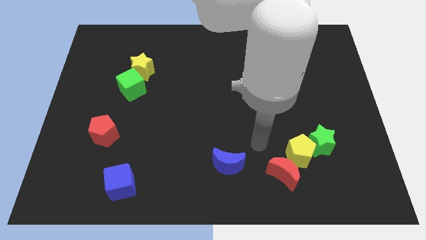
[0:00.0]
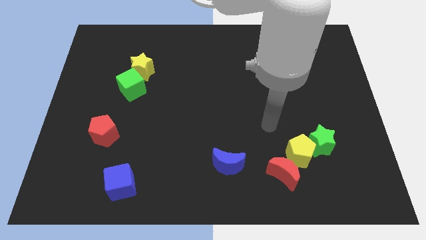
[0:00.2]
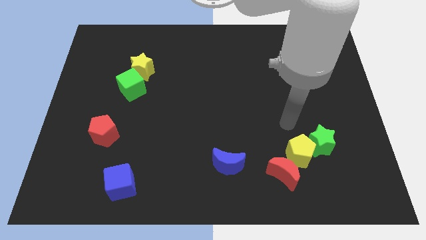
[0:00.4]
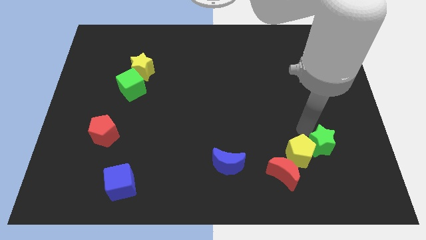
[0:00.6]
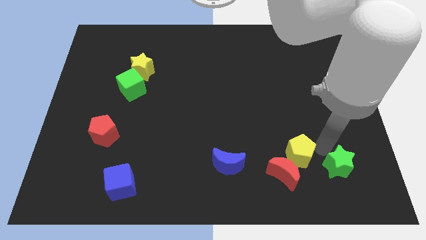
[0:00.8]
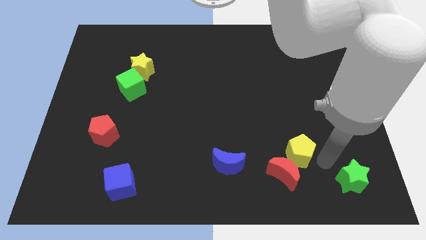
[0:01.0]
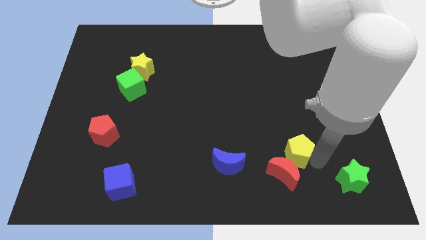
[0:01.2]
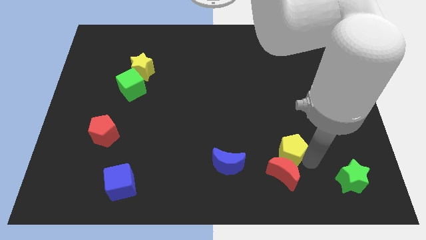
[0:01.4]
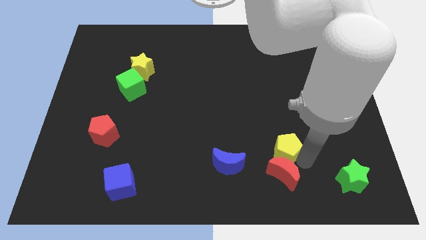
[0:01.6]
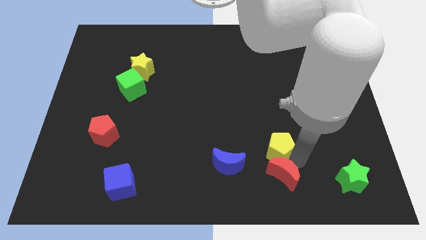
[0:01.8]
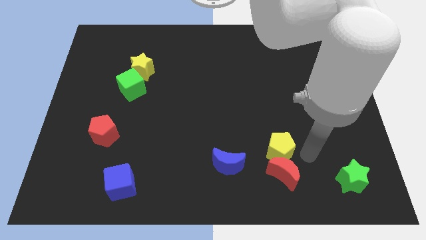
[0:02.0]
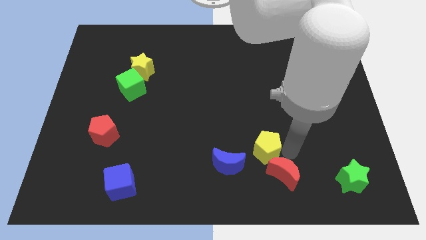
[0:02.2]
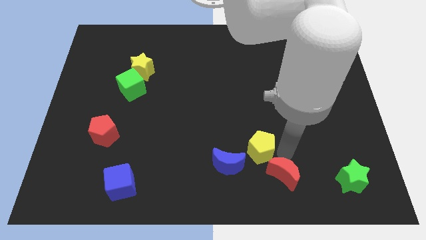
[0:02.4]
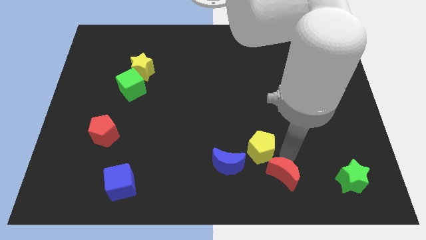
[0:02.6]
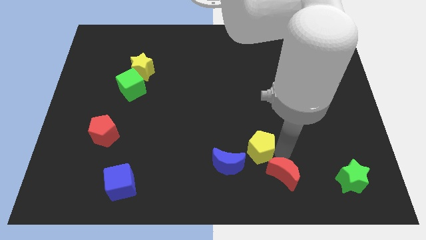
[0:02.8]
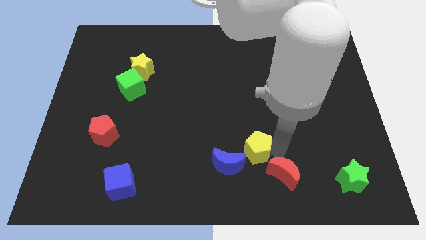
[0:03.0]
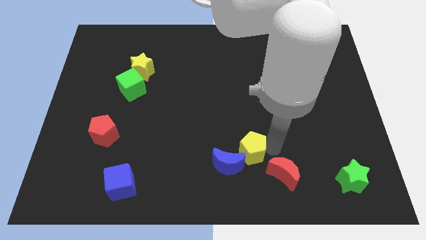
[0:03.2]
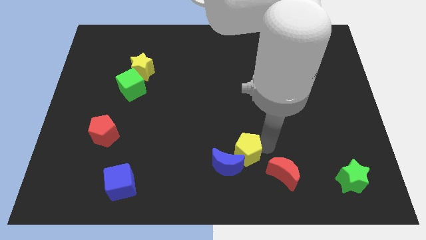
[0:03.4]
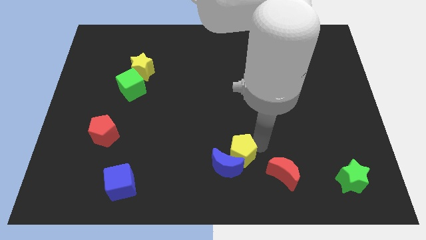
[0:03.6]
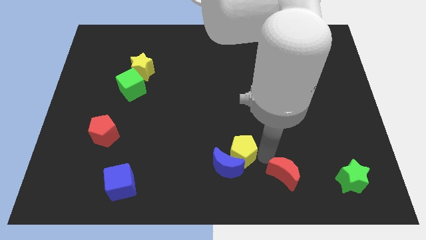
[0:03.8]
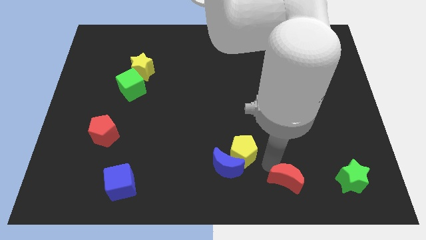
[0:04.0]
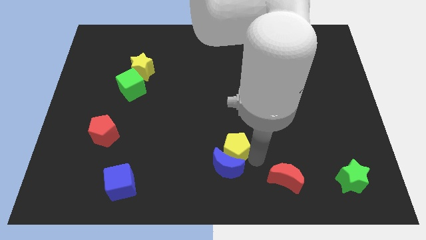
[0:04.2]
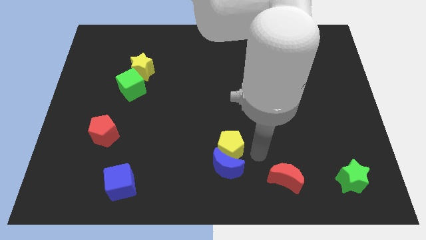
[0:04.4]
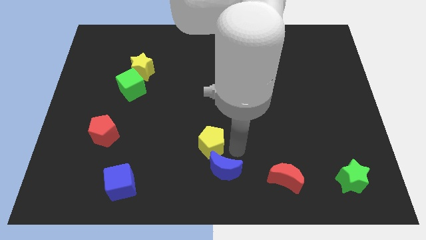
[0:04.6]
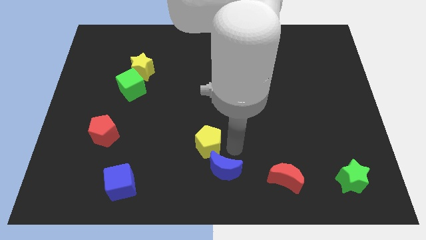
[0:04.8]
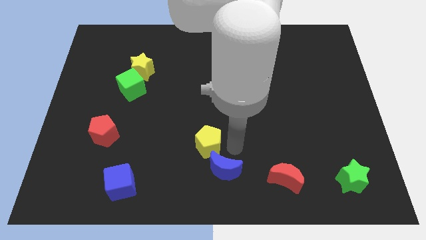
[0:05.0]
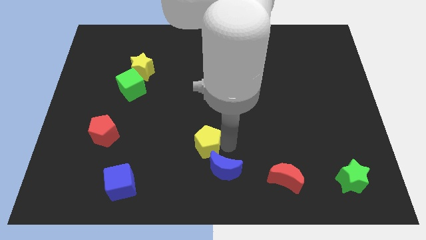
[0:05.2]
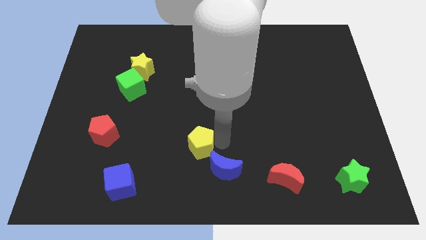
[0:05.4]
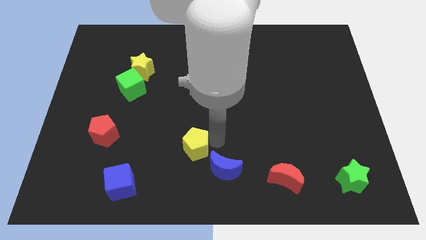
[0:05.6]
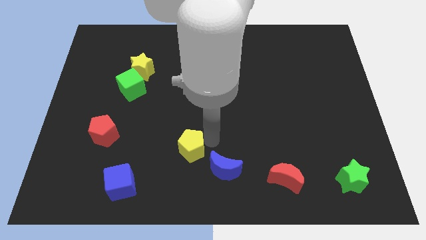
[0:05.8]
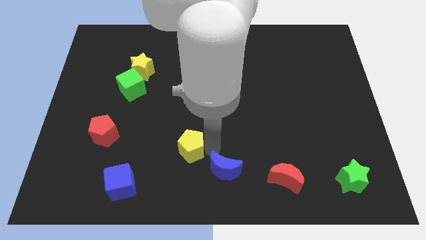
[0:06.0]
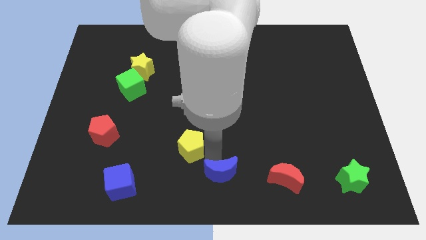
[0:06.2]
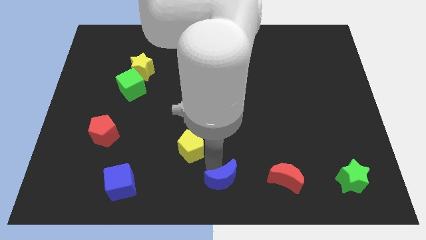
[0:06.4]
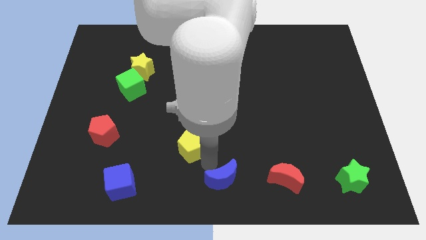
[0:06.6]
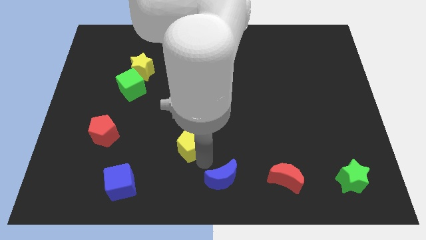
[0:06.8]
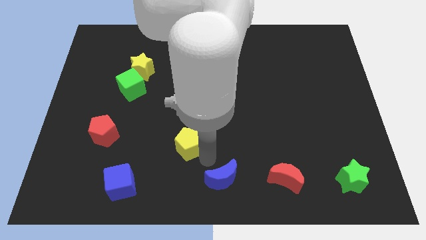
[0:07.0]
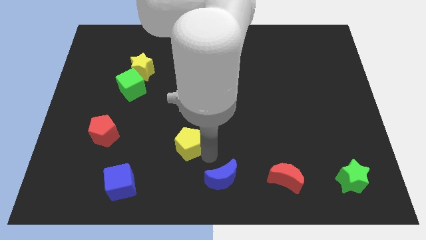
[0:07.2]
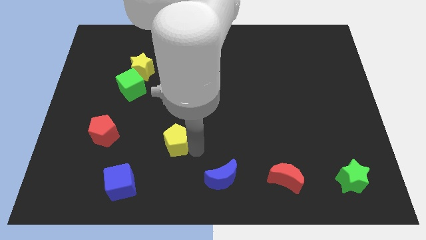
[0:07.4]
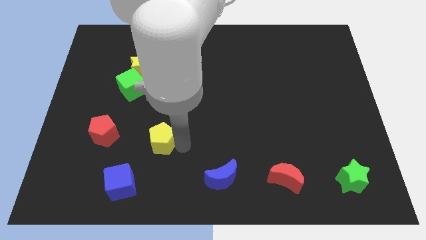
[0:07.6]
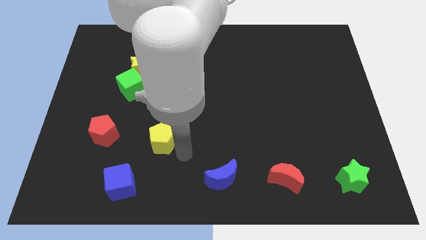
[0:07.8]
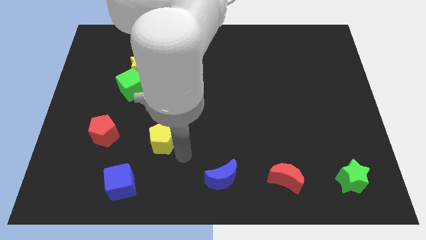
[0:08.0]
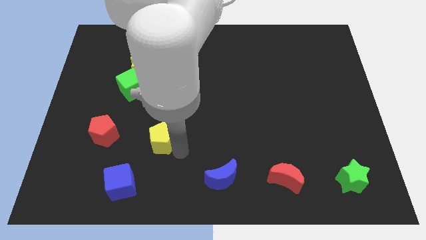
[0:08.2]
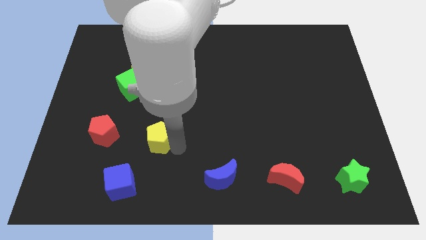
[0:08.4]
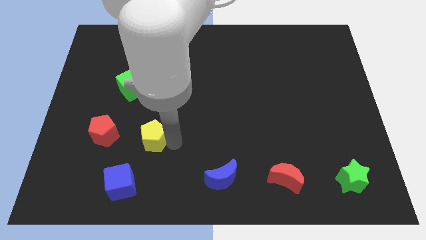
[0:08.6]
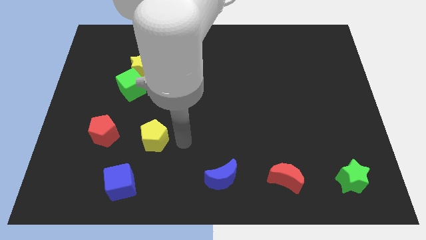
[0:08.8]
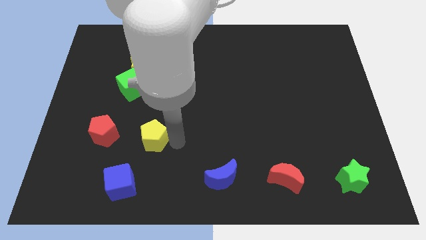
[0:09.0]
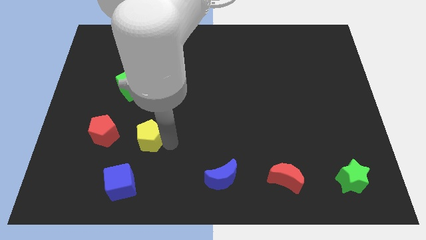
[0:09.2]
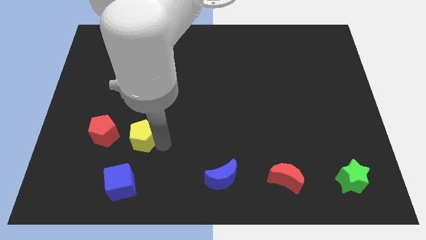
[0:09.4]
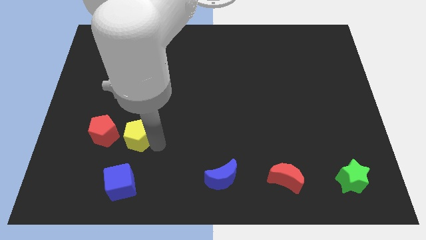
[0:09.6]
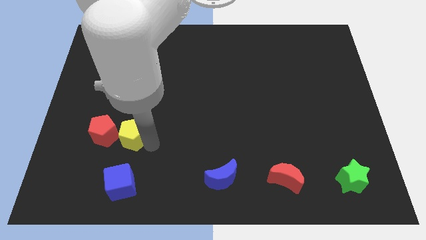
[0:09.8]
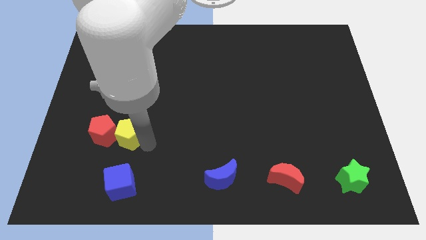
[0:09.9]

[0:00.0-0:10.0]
slide the yellow pentagon to the red pentagon

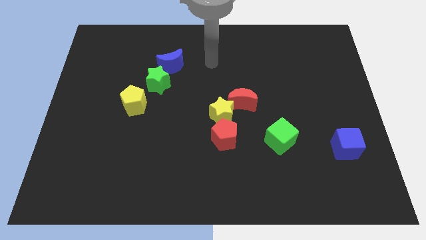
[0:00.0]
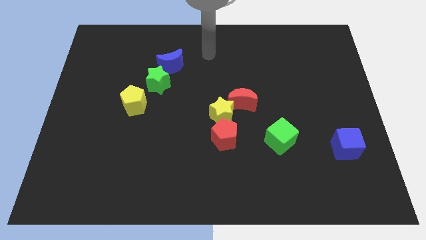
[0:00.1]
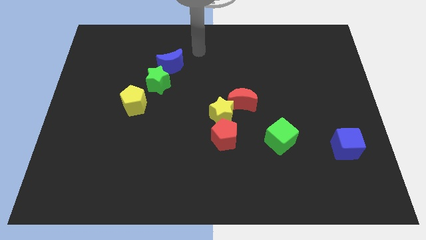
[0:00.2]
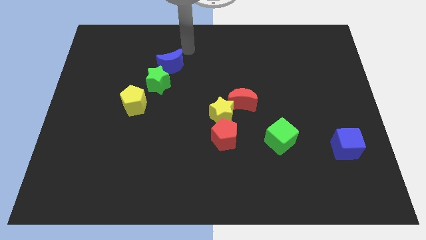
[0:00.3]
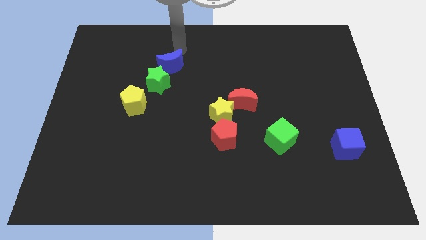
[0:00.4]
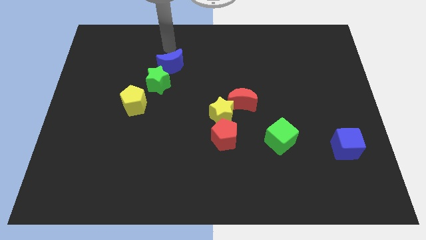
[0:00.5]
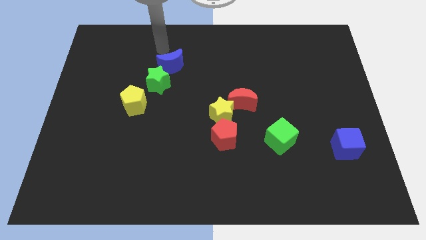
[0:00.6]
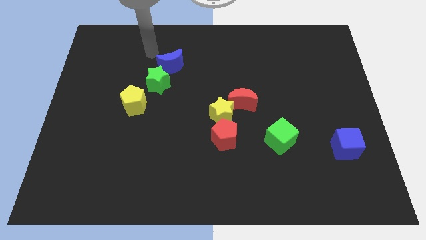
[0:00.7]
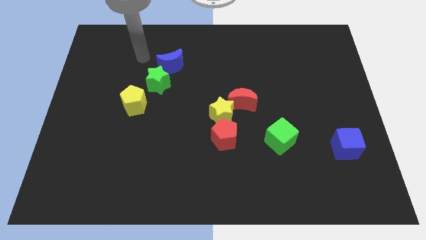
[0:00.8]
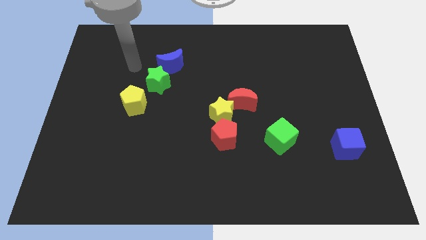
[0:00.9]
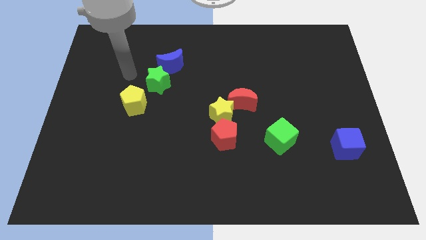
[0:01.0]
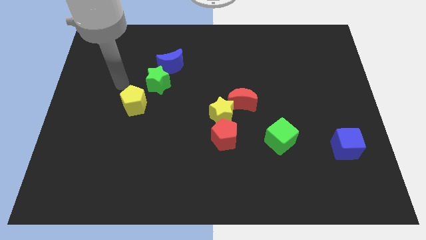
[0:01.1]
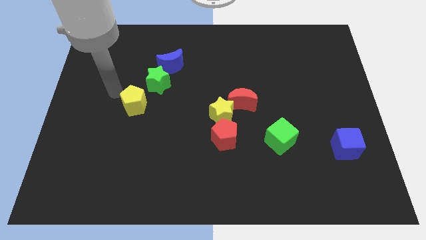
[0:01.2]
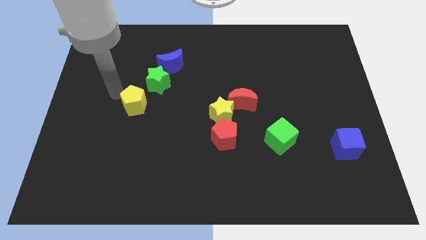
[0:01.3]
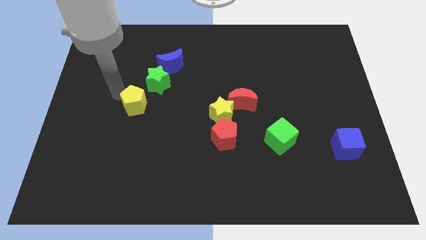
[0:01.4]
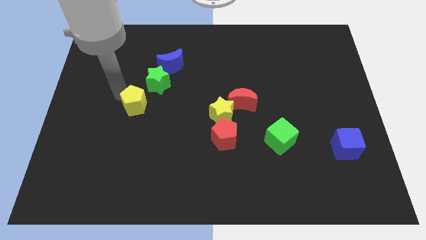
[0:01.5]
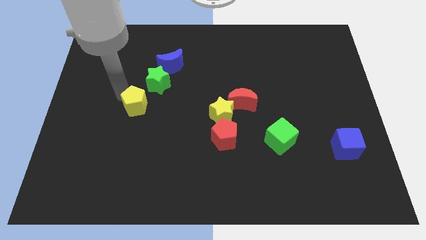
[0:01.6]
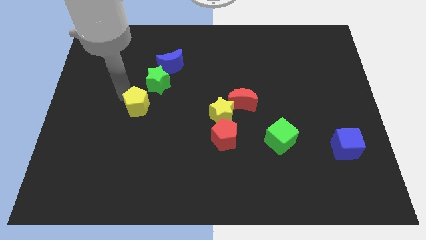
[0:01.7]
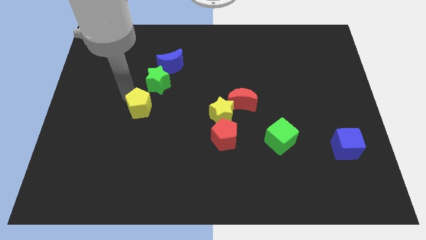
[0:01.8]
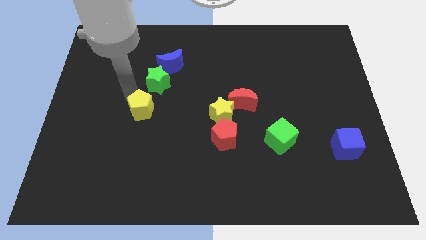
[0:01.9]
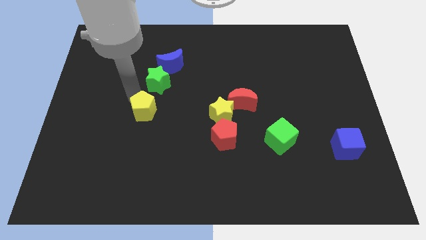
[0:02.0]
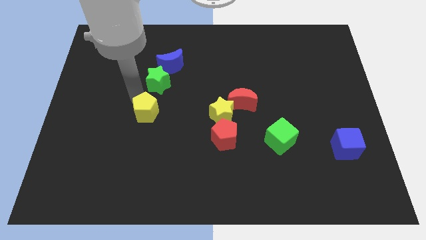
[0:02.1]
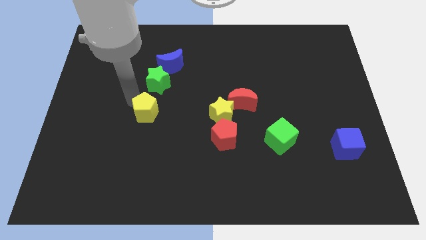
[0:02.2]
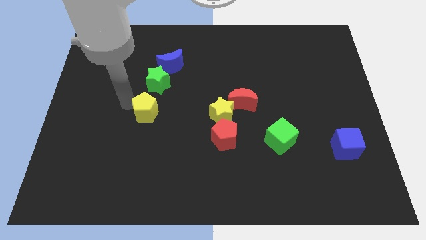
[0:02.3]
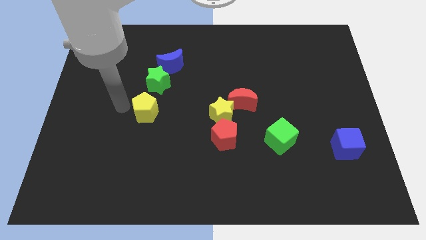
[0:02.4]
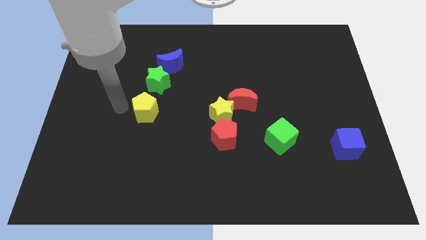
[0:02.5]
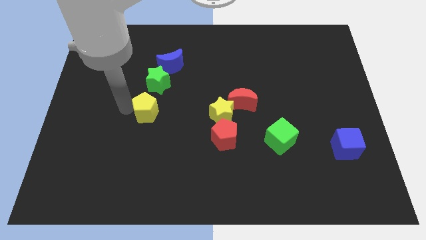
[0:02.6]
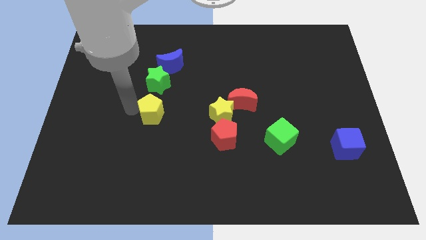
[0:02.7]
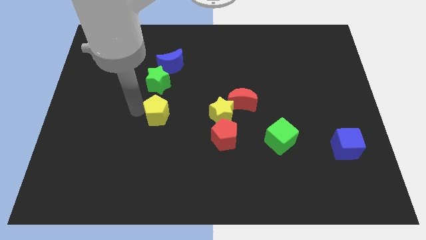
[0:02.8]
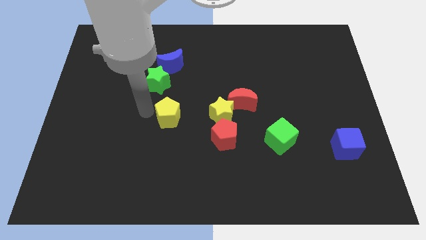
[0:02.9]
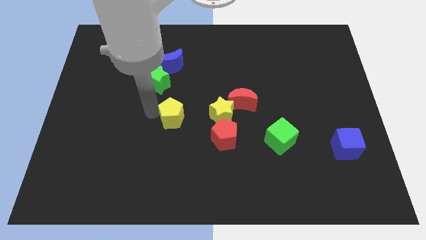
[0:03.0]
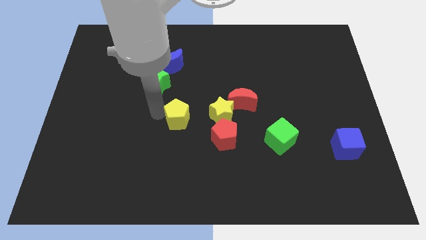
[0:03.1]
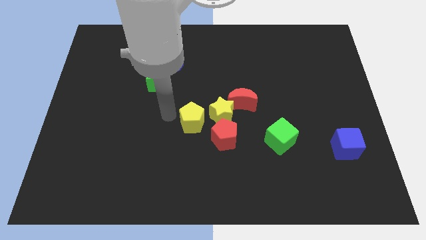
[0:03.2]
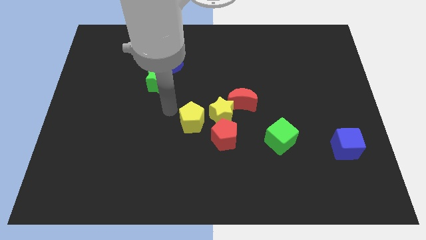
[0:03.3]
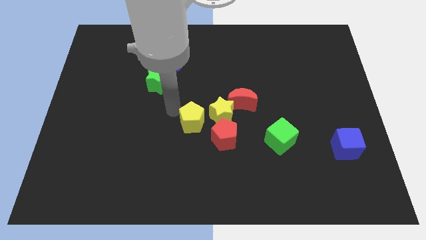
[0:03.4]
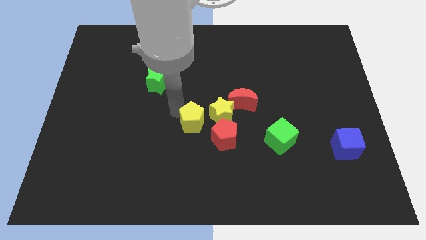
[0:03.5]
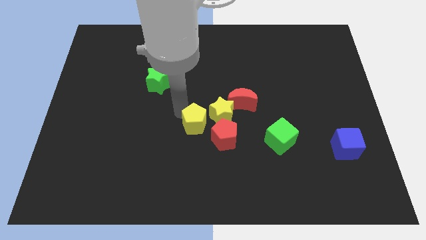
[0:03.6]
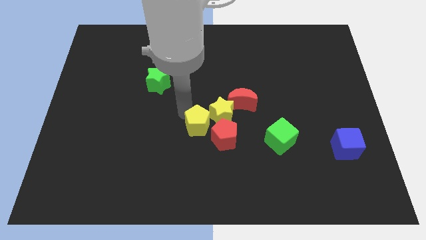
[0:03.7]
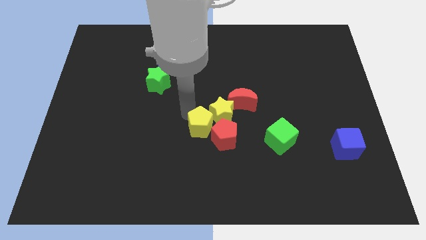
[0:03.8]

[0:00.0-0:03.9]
put the yellow pentagon towards the red pentagon
